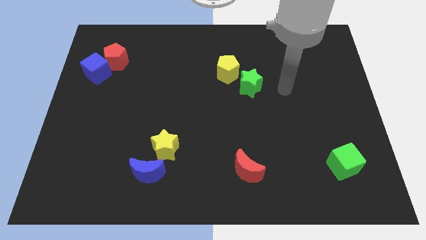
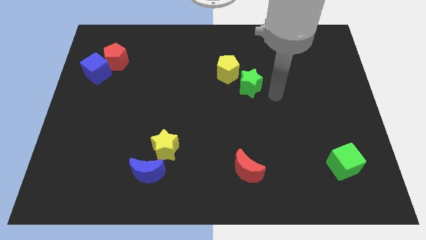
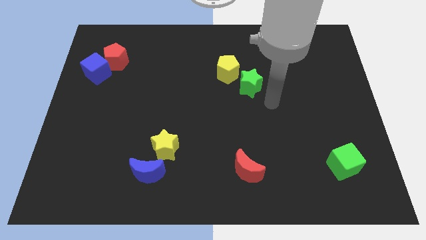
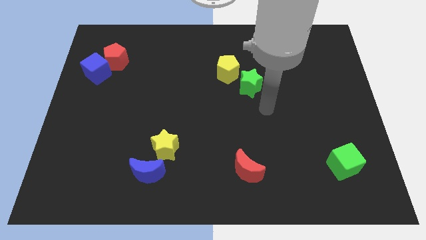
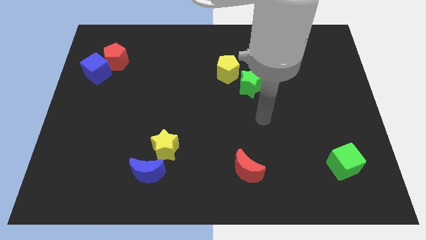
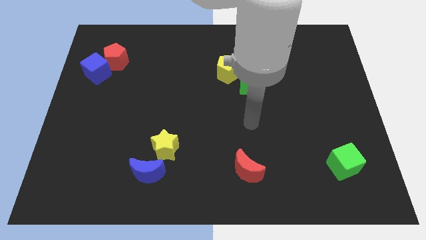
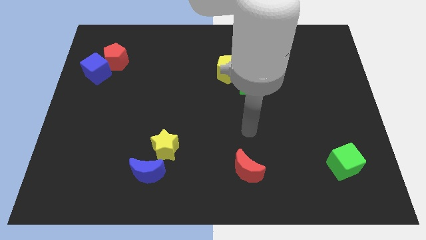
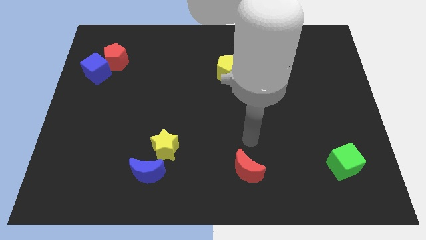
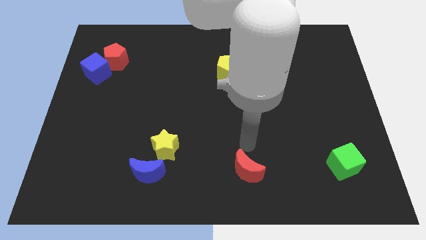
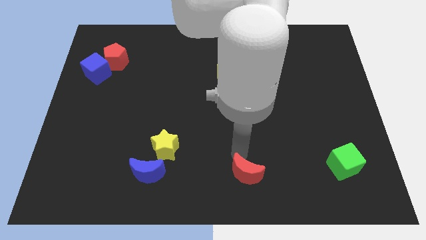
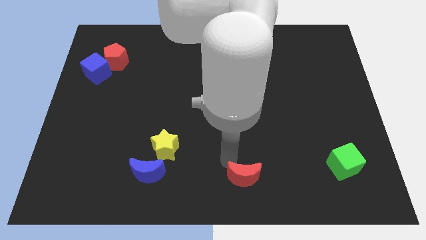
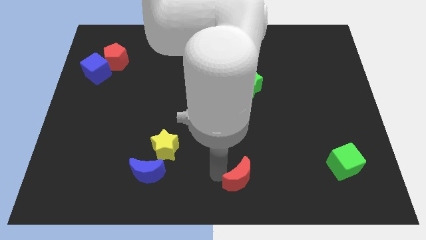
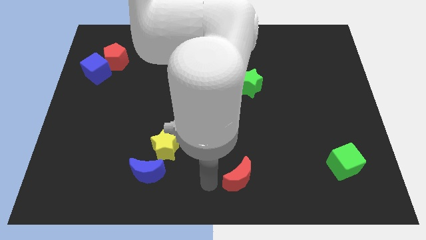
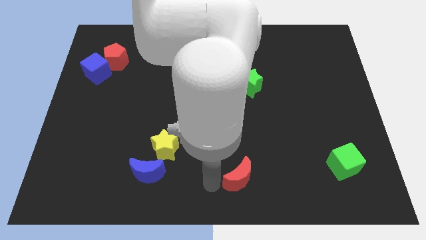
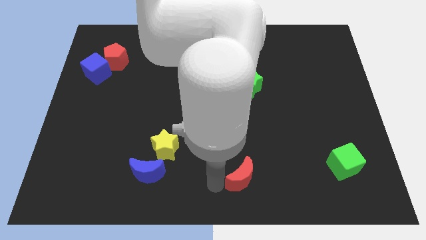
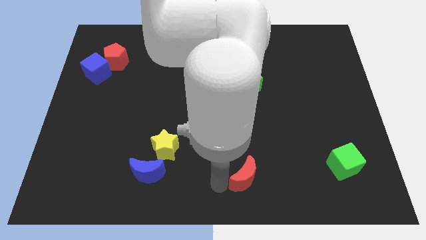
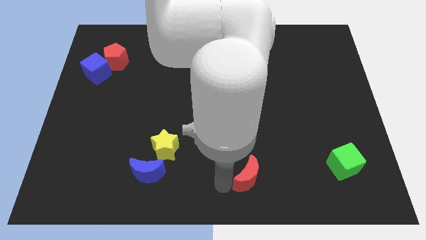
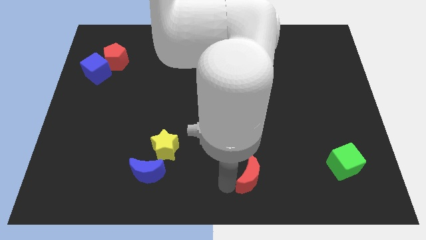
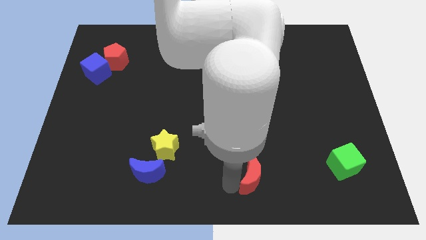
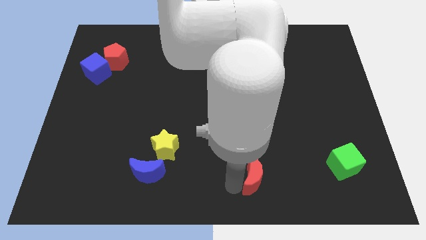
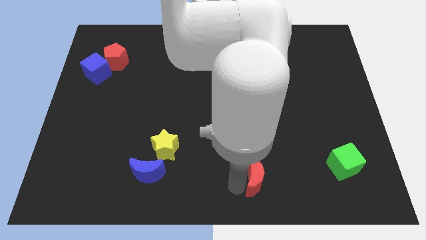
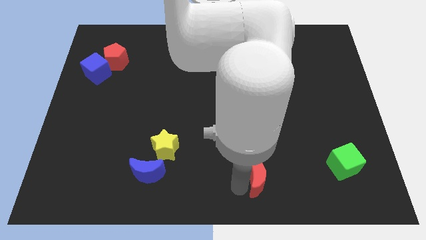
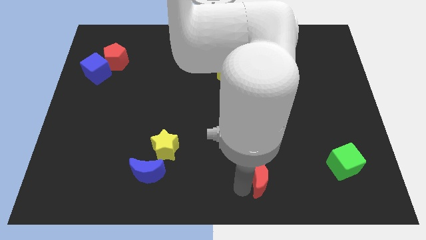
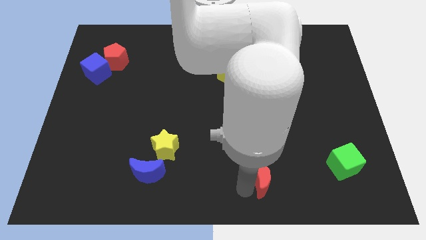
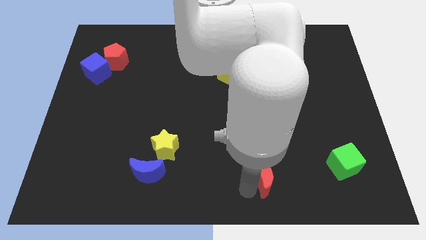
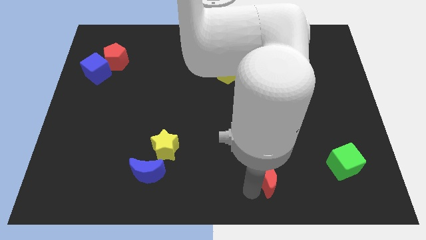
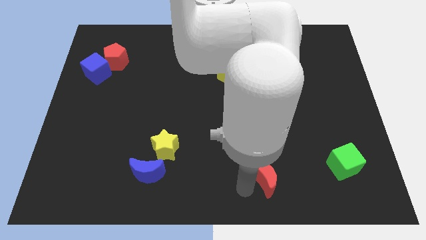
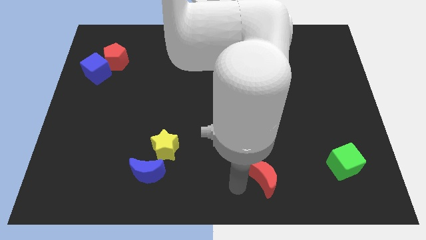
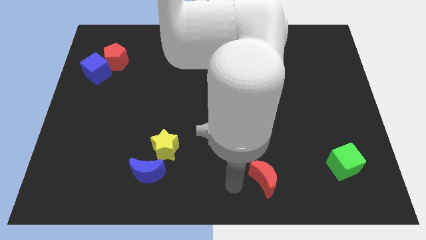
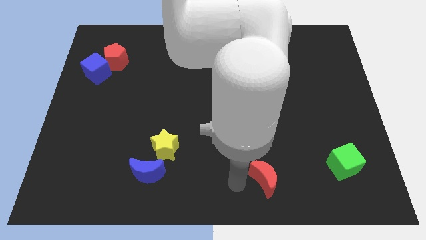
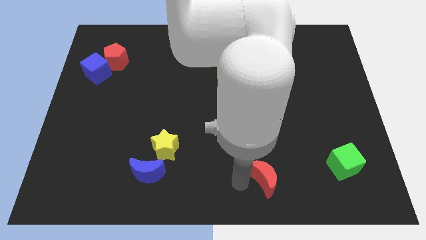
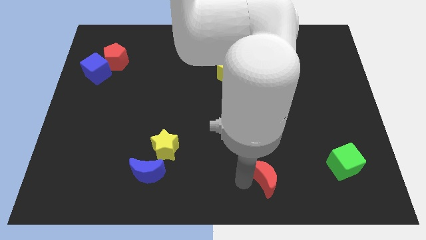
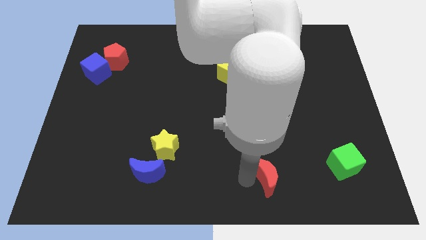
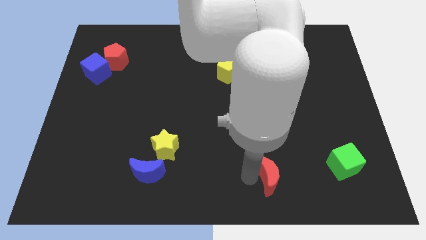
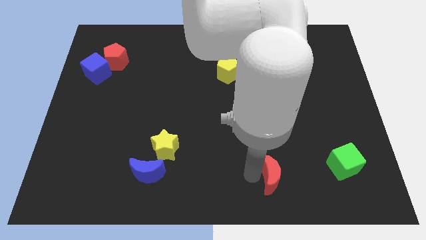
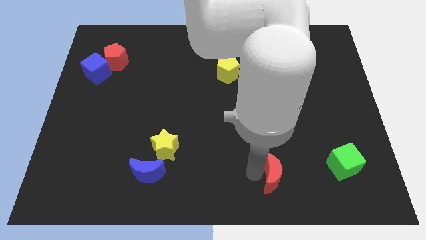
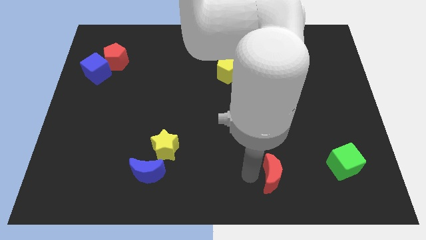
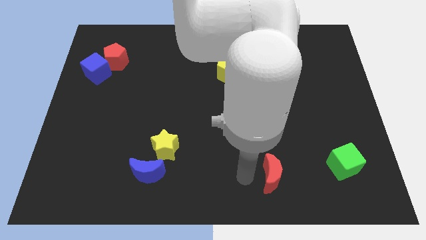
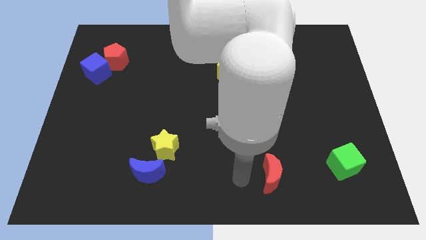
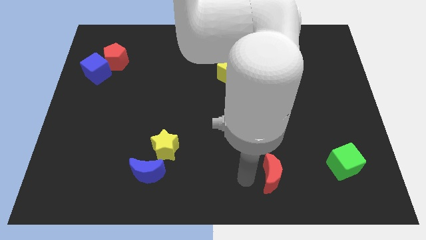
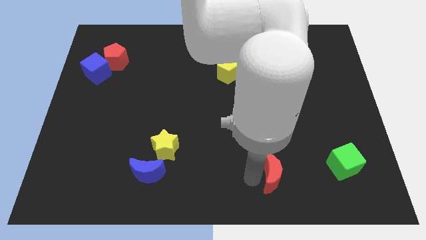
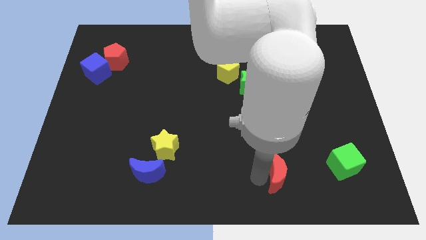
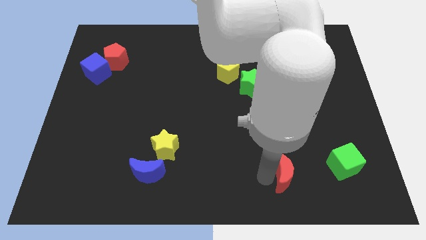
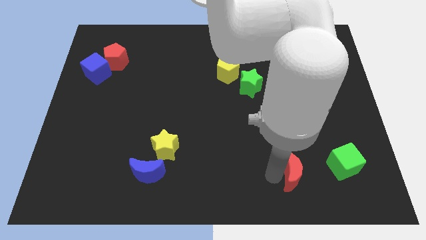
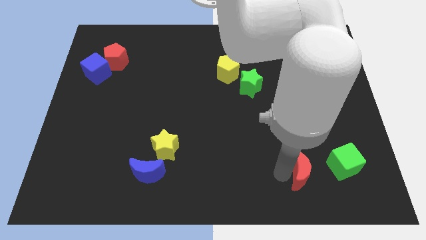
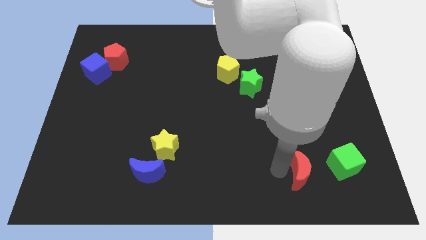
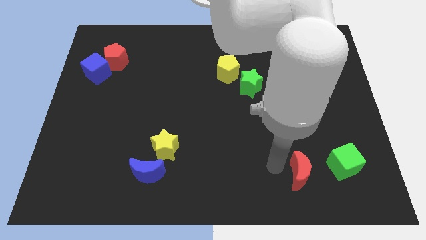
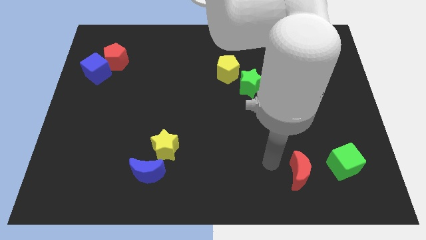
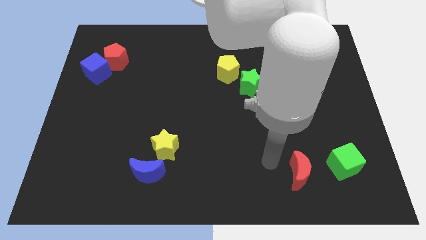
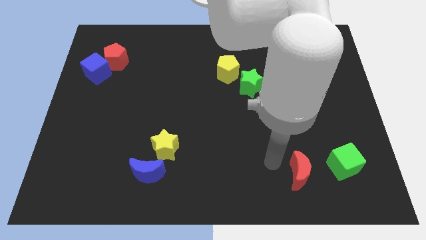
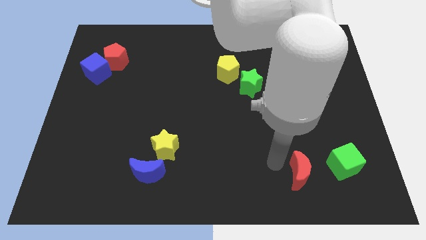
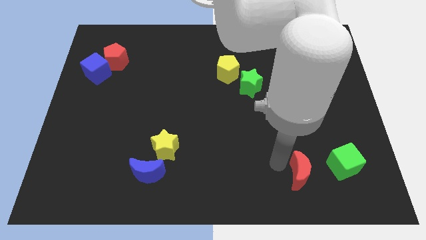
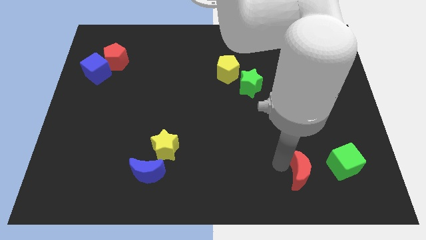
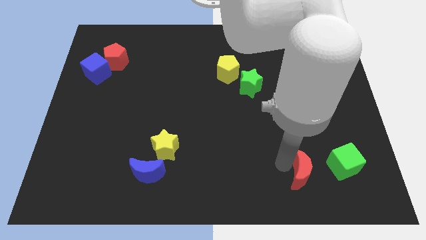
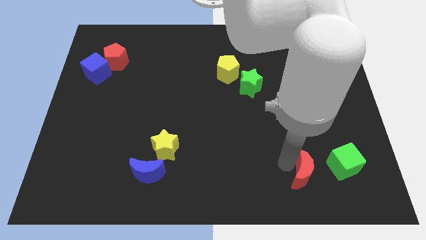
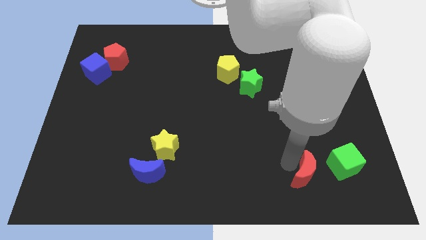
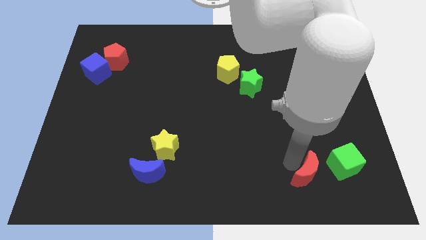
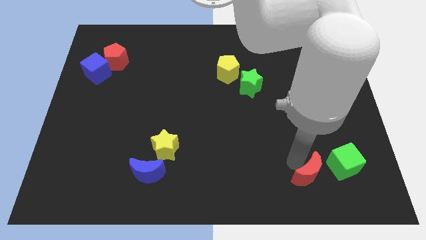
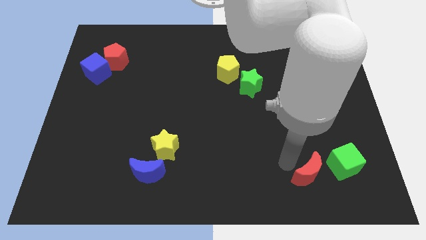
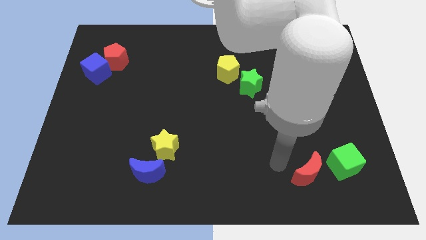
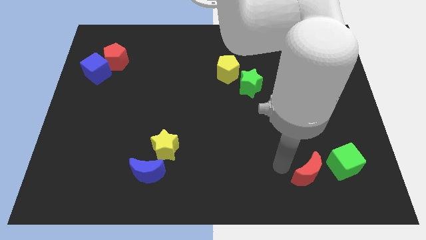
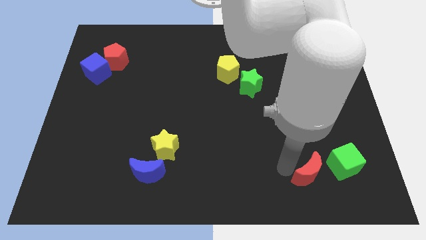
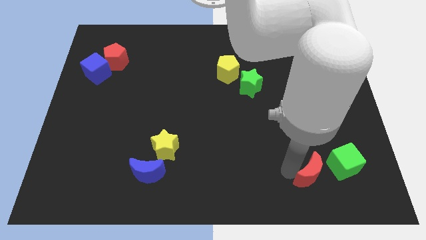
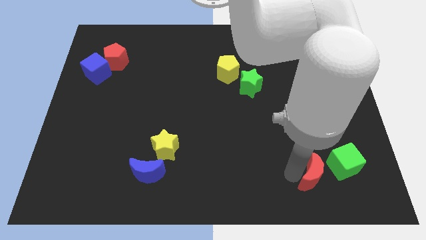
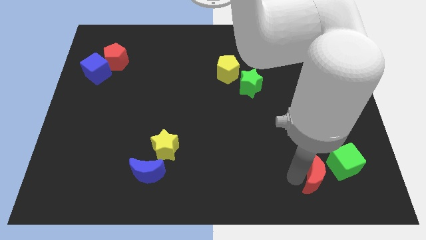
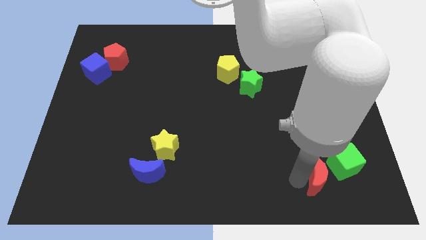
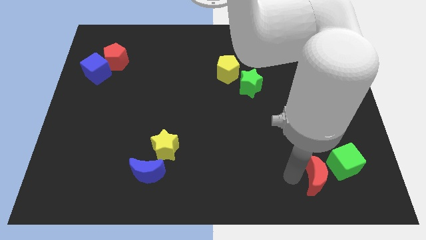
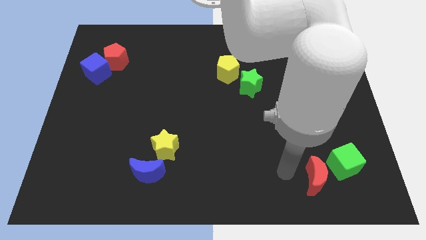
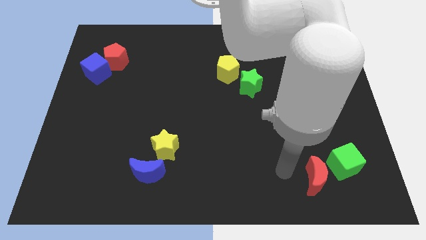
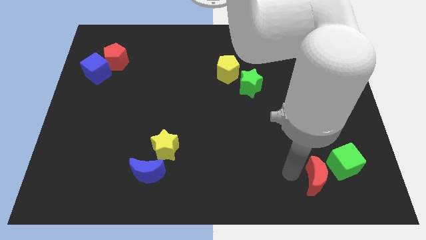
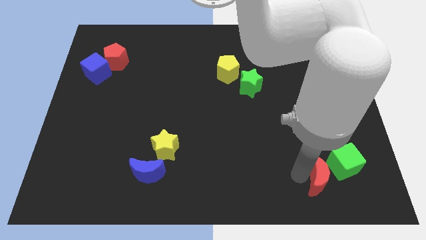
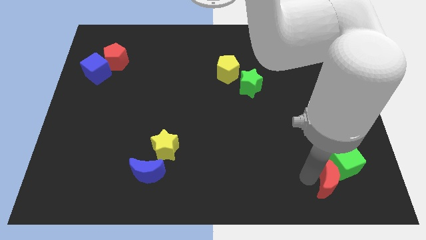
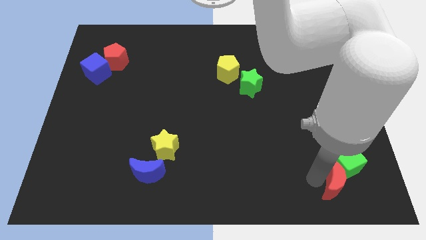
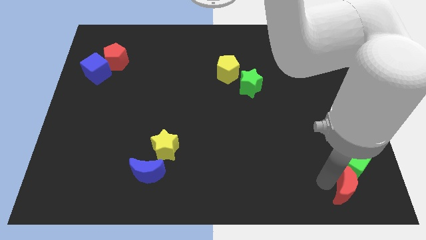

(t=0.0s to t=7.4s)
put the red moon to the bottom right of the board

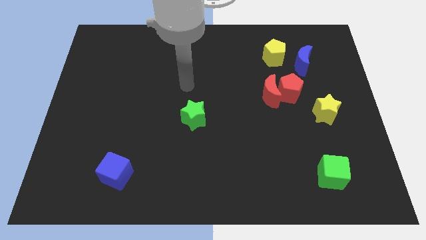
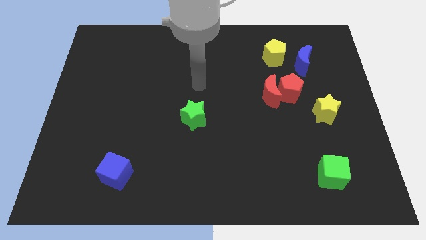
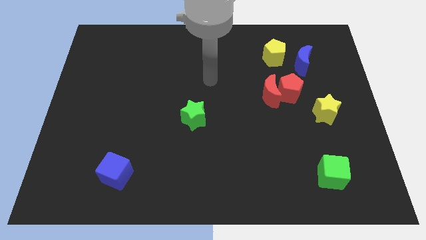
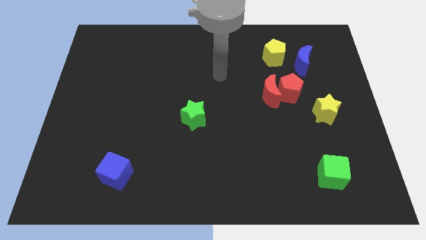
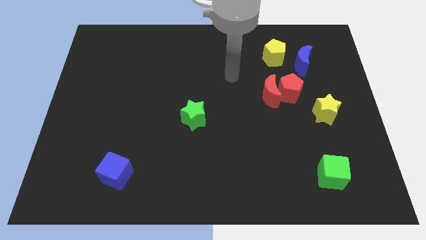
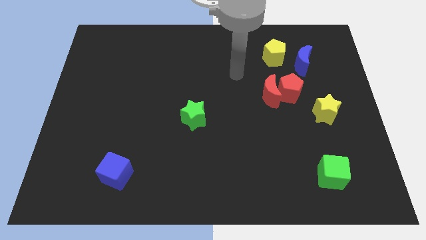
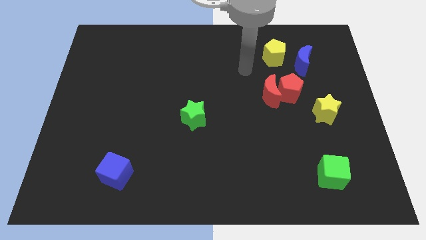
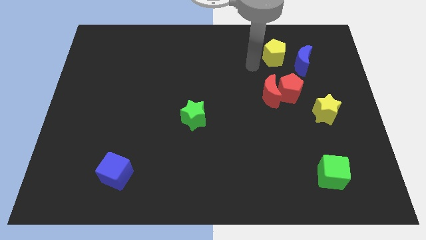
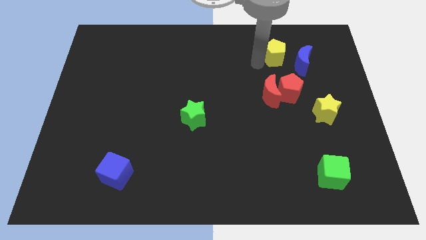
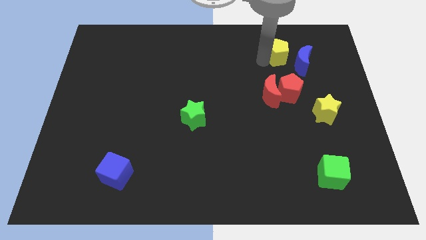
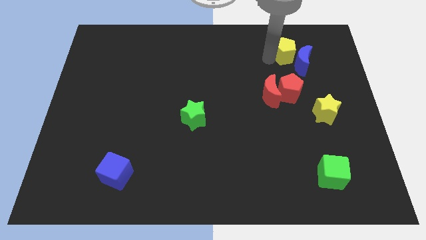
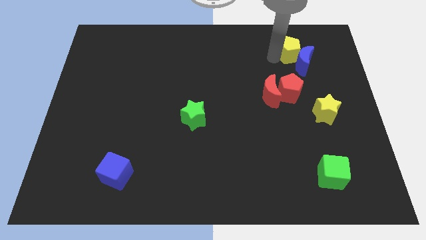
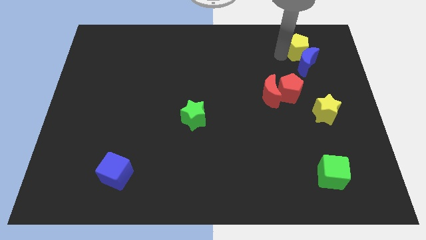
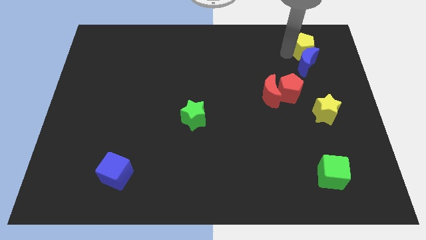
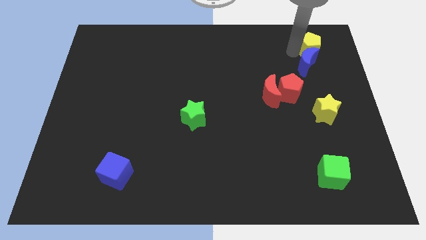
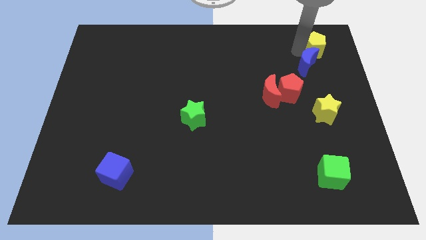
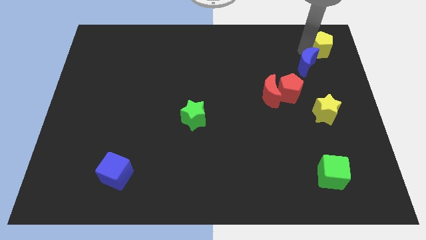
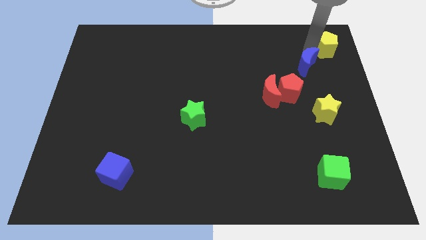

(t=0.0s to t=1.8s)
put the yellow pentagon to the top right corner
